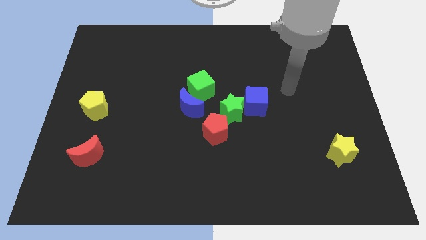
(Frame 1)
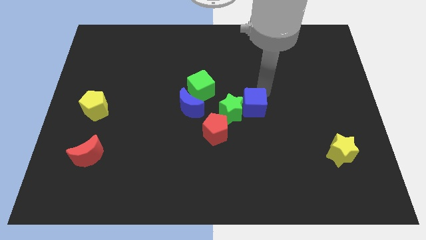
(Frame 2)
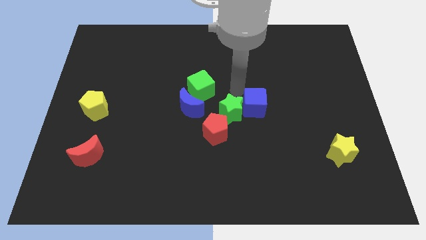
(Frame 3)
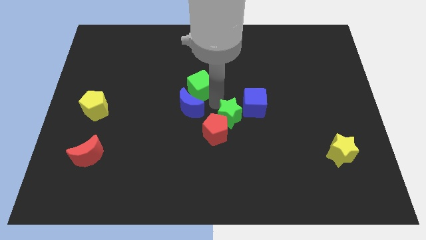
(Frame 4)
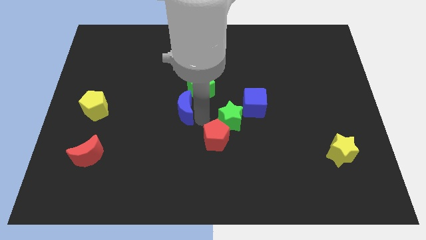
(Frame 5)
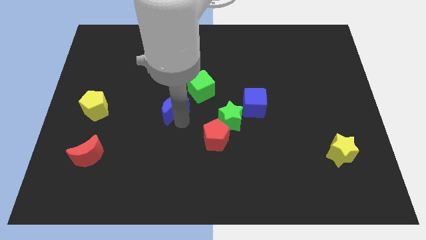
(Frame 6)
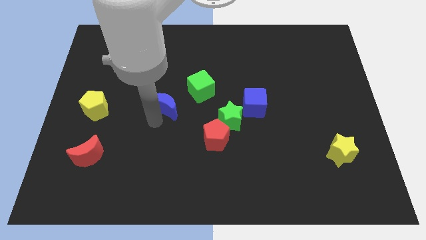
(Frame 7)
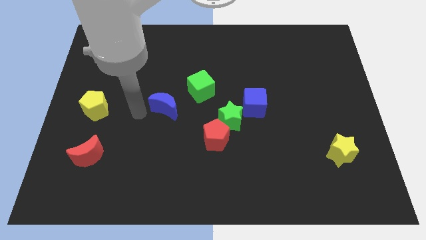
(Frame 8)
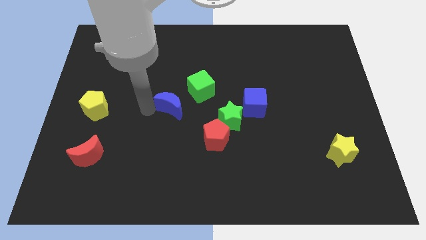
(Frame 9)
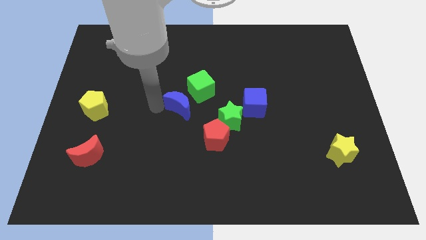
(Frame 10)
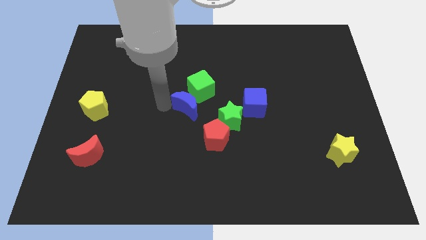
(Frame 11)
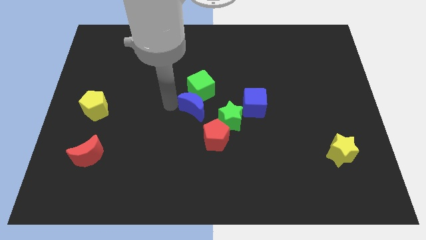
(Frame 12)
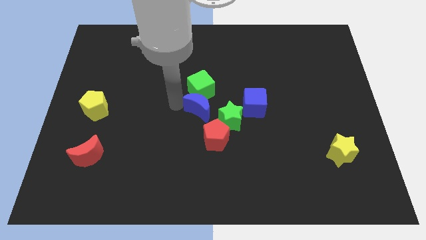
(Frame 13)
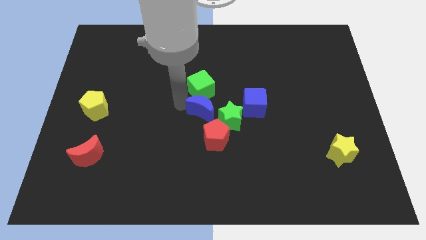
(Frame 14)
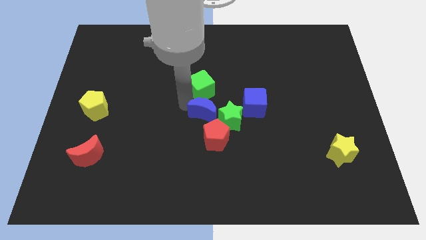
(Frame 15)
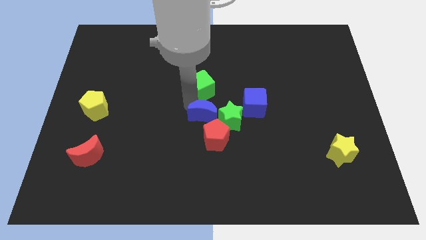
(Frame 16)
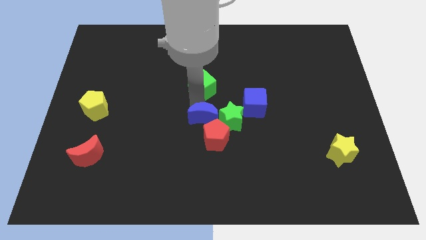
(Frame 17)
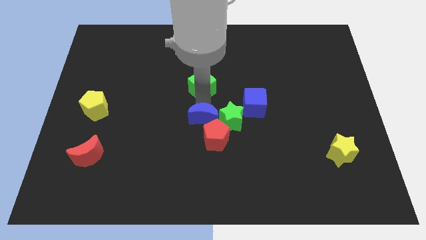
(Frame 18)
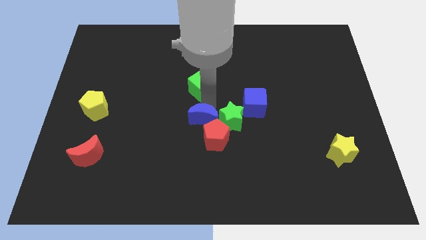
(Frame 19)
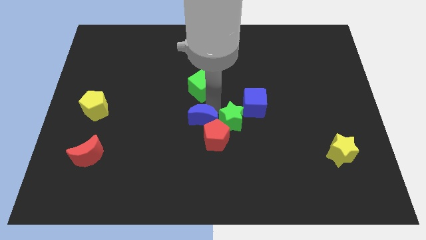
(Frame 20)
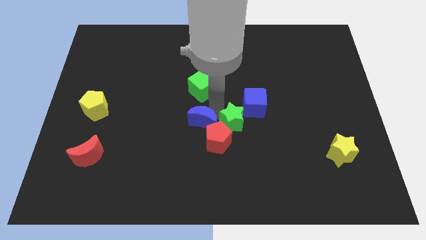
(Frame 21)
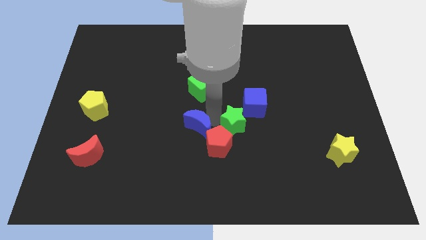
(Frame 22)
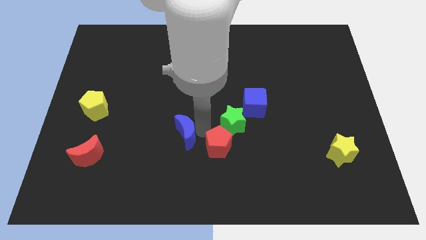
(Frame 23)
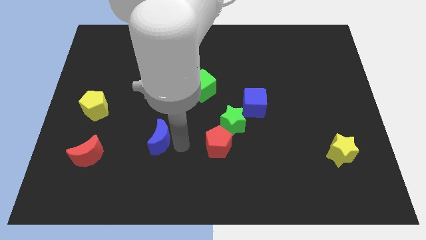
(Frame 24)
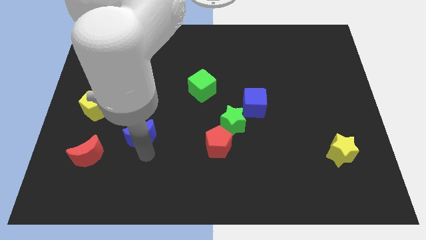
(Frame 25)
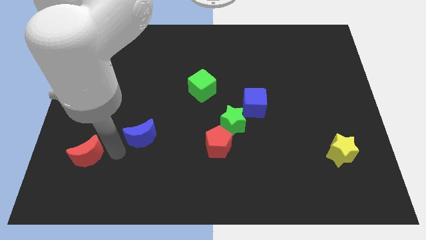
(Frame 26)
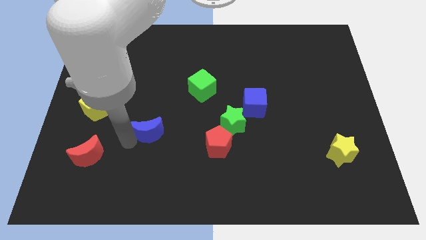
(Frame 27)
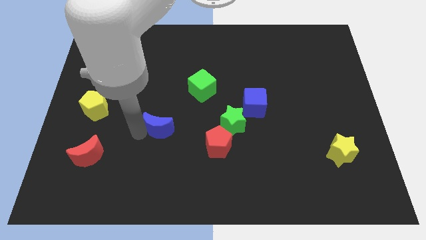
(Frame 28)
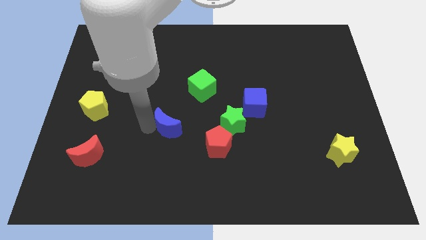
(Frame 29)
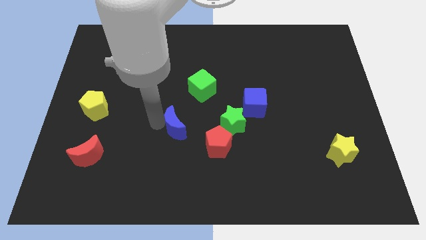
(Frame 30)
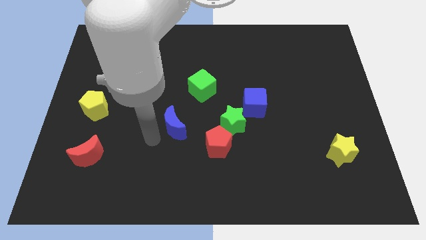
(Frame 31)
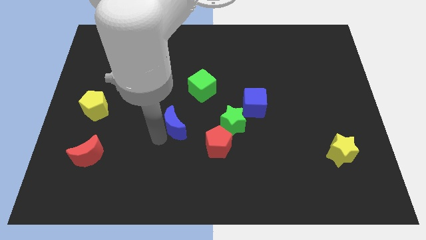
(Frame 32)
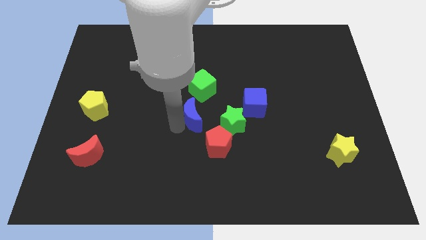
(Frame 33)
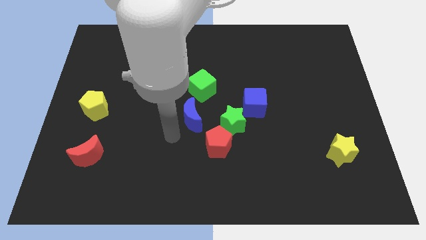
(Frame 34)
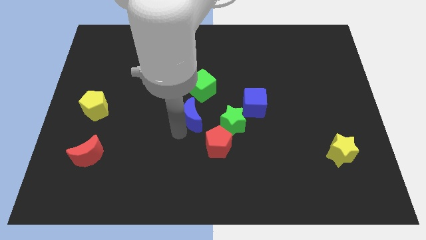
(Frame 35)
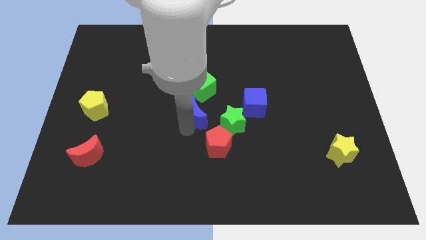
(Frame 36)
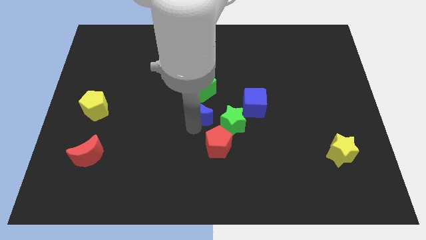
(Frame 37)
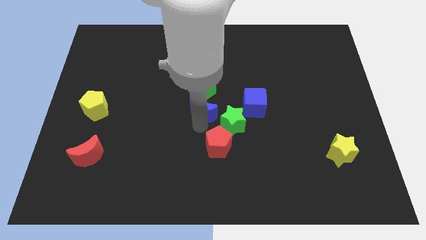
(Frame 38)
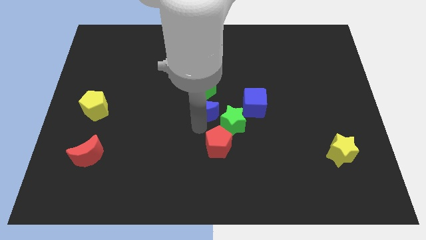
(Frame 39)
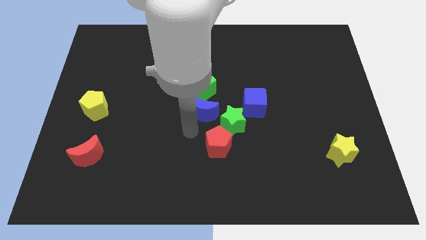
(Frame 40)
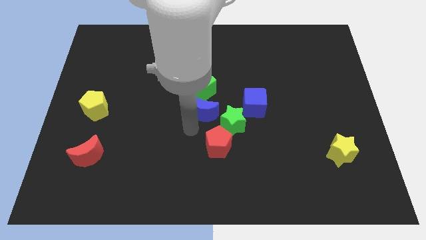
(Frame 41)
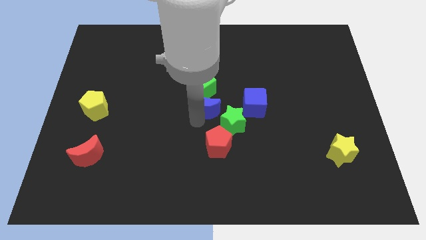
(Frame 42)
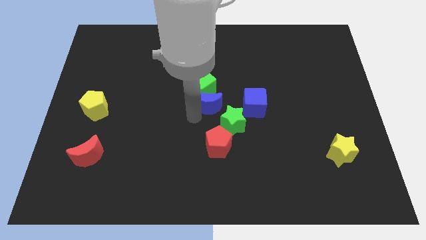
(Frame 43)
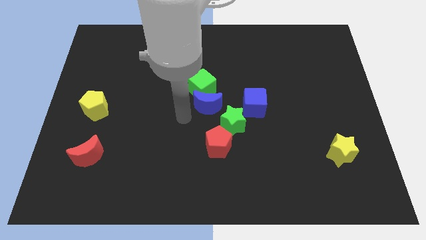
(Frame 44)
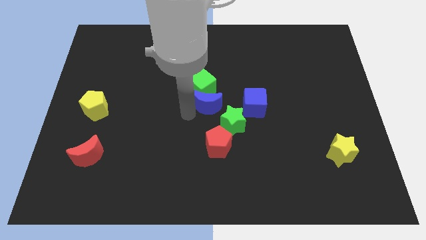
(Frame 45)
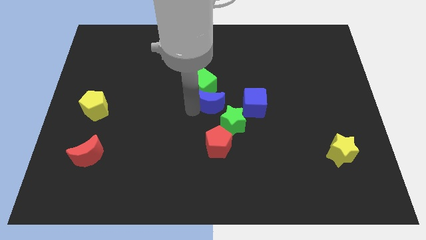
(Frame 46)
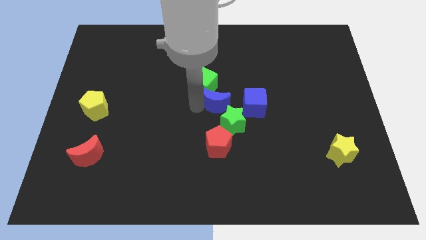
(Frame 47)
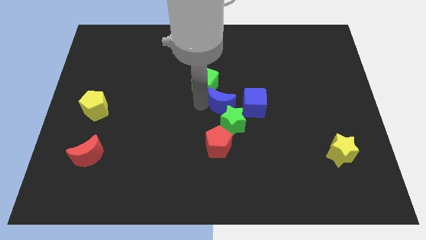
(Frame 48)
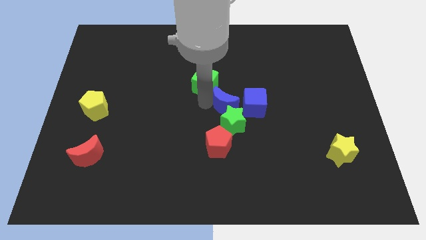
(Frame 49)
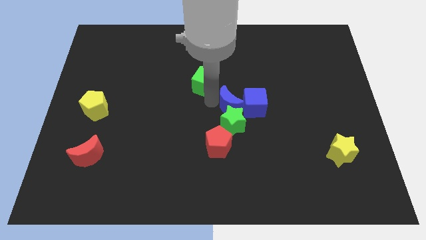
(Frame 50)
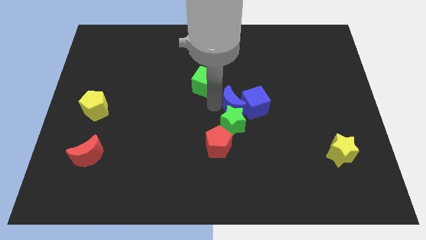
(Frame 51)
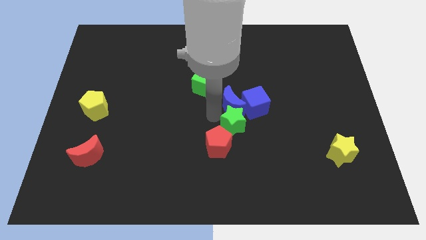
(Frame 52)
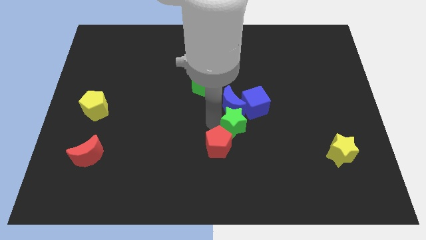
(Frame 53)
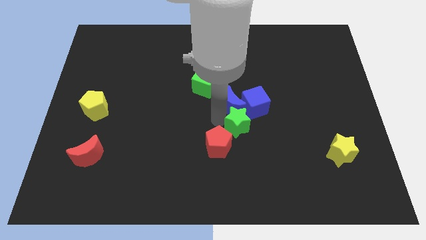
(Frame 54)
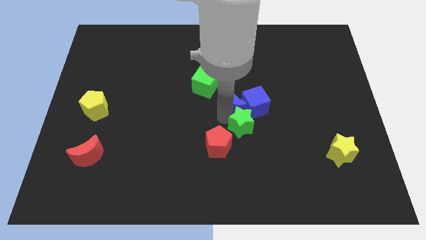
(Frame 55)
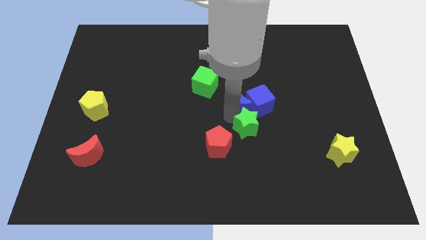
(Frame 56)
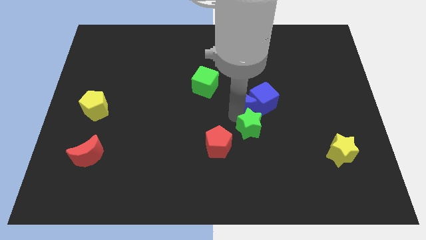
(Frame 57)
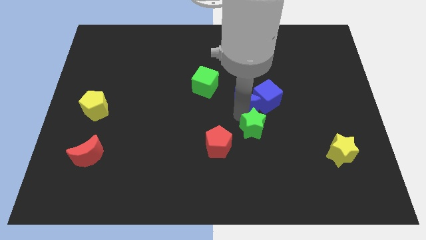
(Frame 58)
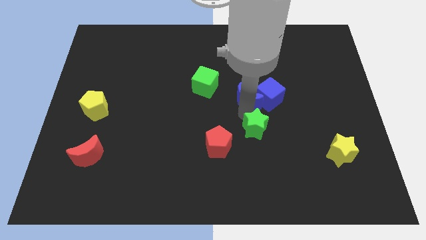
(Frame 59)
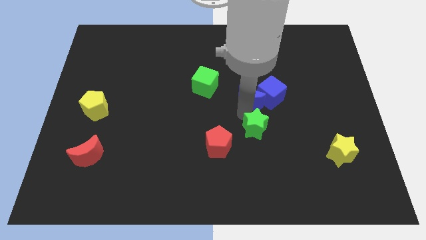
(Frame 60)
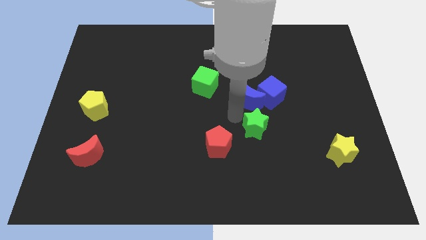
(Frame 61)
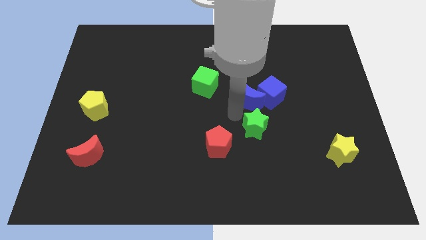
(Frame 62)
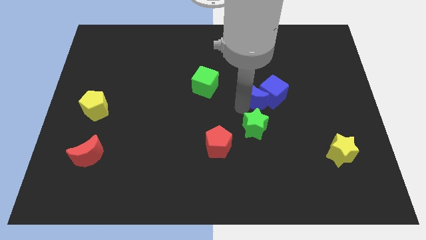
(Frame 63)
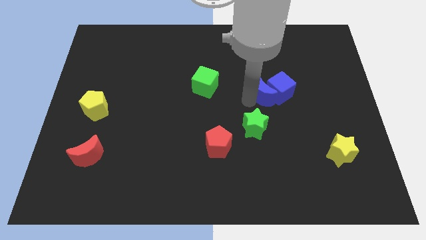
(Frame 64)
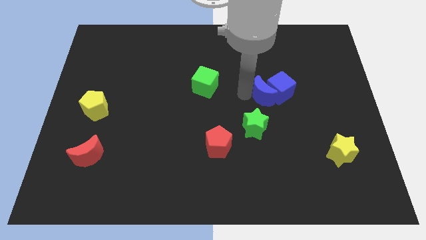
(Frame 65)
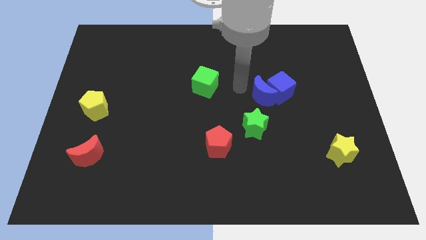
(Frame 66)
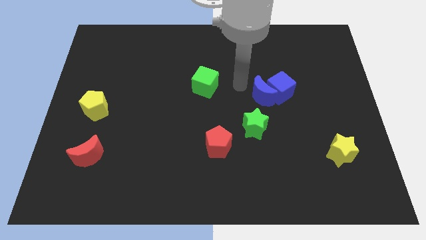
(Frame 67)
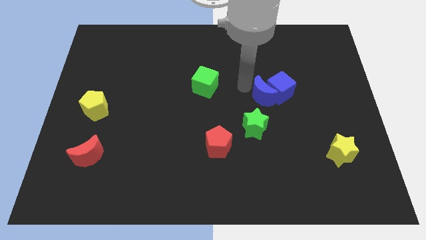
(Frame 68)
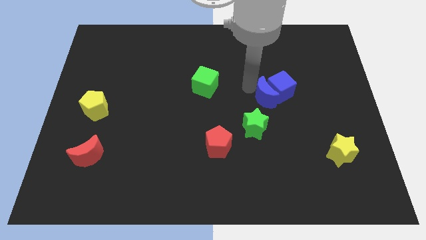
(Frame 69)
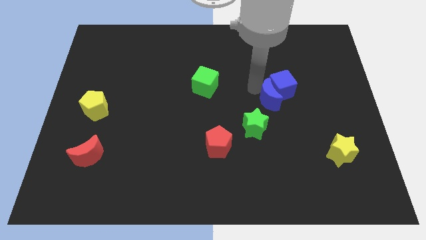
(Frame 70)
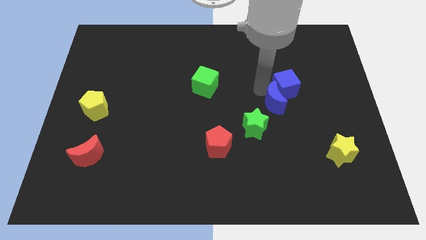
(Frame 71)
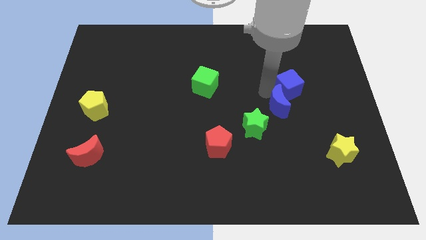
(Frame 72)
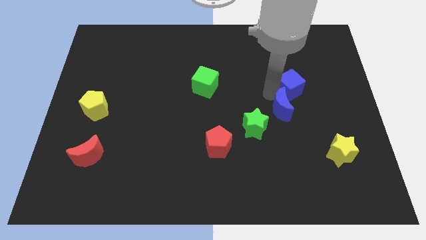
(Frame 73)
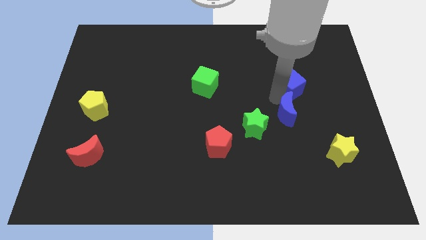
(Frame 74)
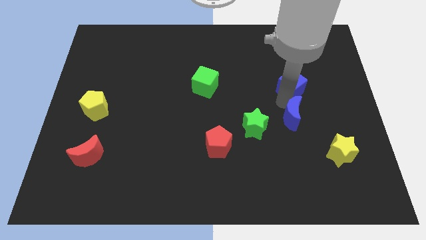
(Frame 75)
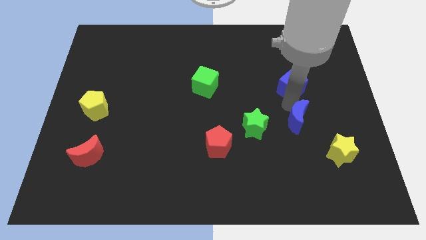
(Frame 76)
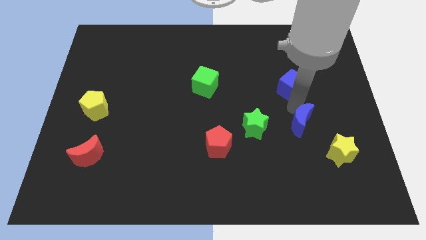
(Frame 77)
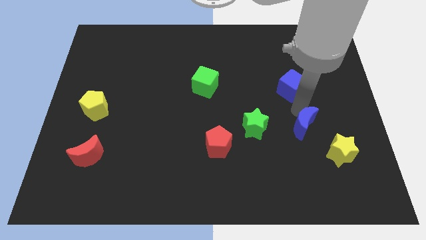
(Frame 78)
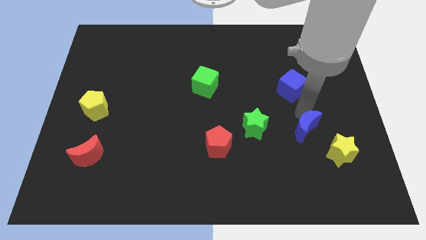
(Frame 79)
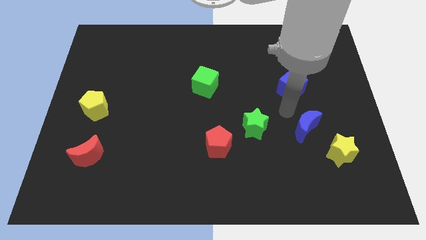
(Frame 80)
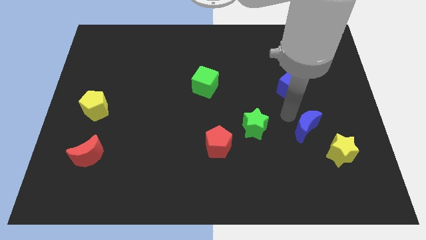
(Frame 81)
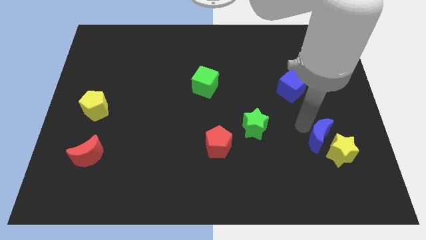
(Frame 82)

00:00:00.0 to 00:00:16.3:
put the blue moon close to the yellow star
